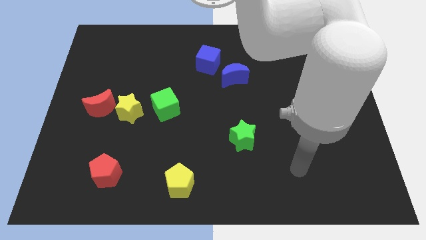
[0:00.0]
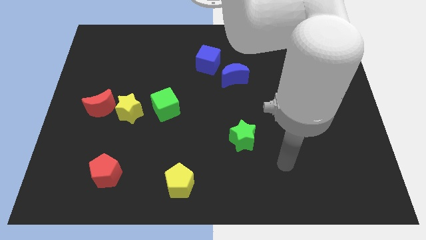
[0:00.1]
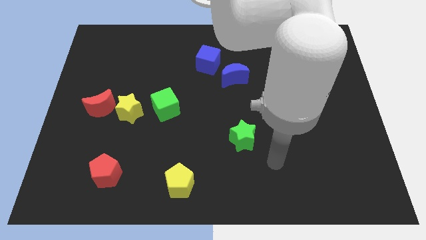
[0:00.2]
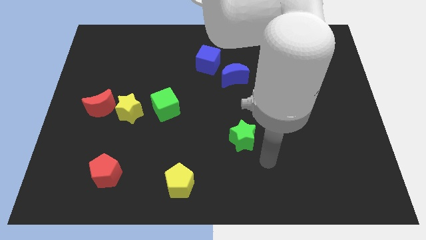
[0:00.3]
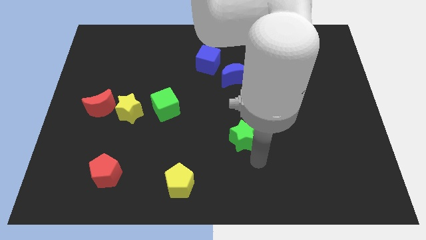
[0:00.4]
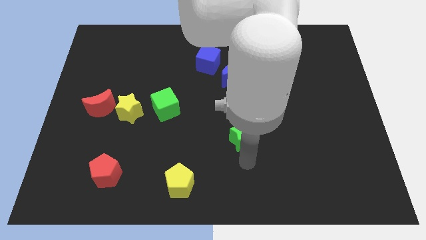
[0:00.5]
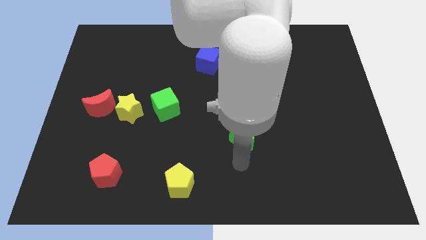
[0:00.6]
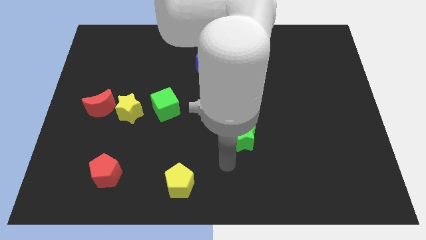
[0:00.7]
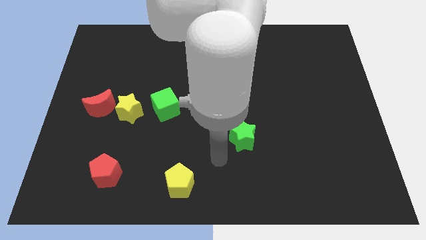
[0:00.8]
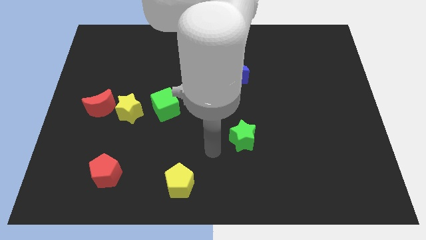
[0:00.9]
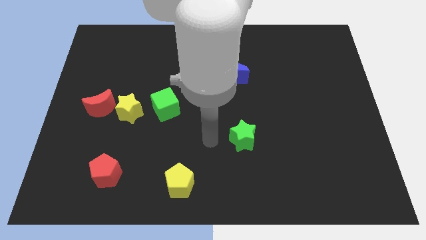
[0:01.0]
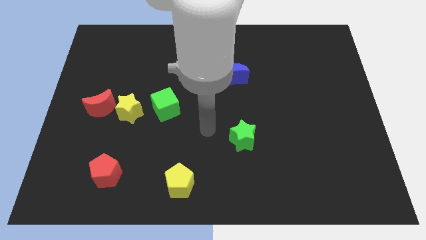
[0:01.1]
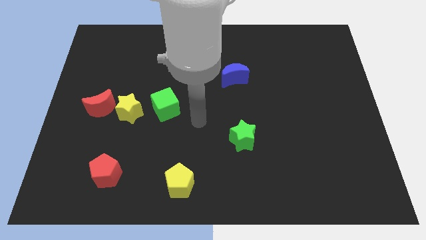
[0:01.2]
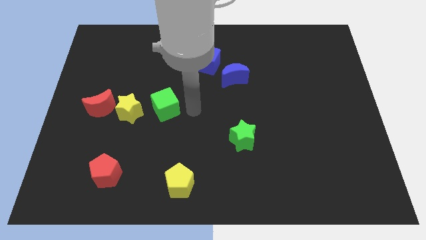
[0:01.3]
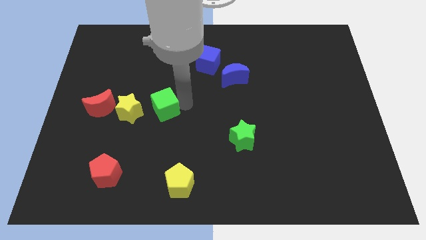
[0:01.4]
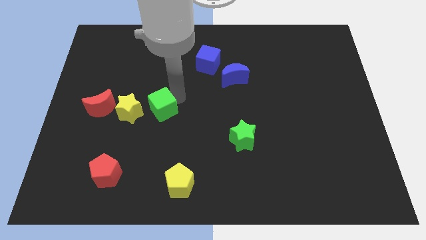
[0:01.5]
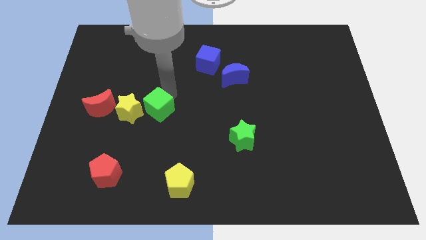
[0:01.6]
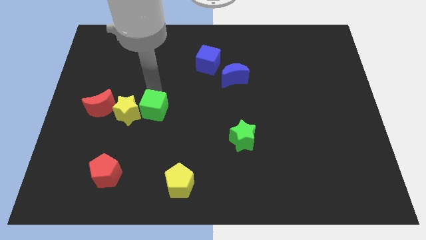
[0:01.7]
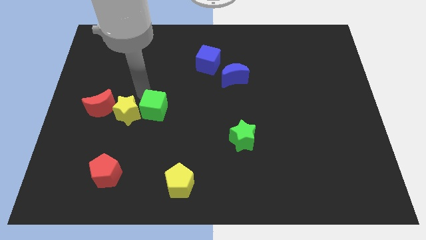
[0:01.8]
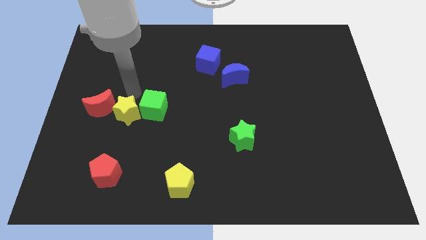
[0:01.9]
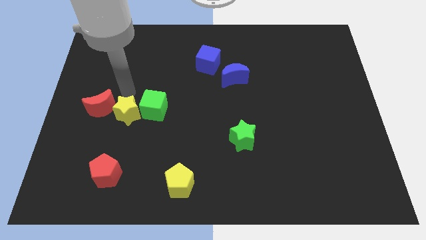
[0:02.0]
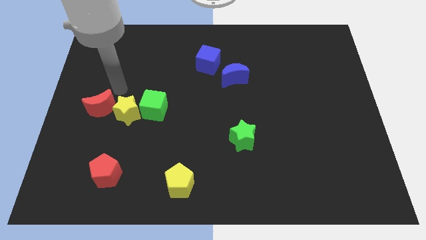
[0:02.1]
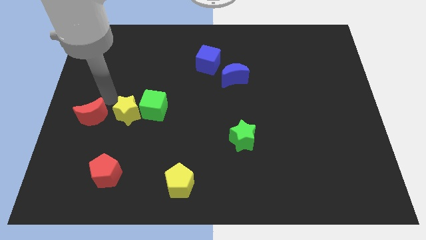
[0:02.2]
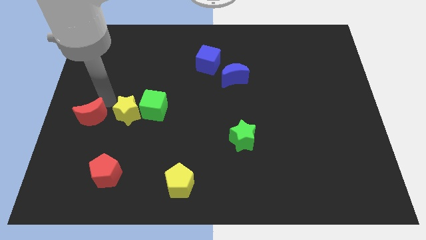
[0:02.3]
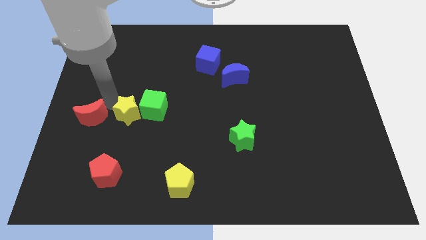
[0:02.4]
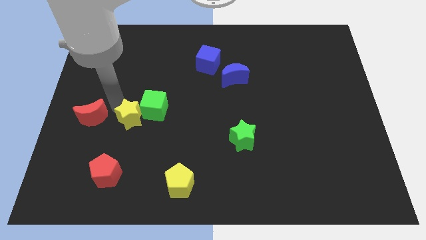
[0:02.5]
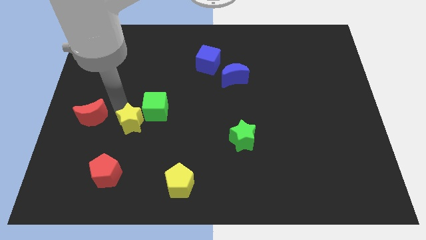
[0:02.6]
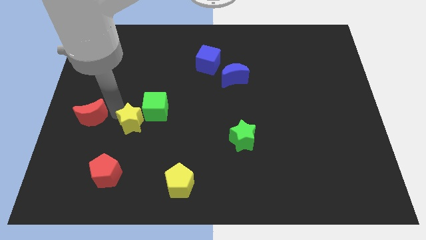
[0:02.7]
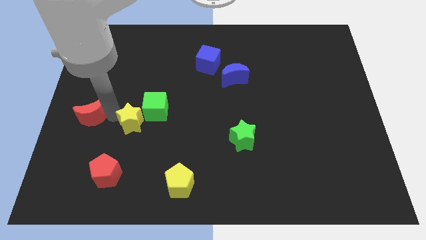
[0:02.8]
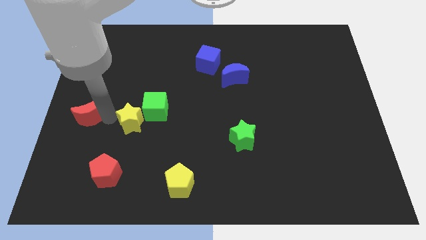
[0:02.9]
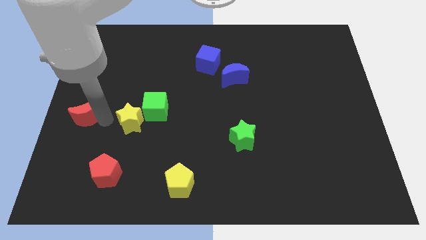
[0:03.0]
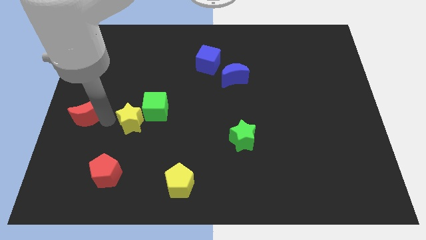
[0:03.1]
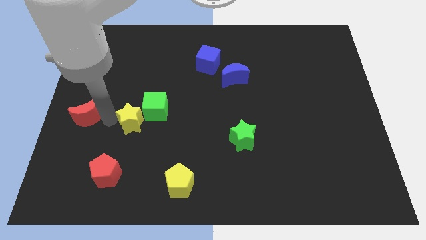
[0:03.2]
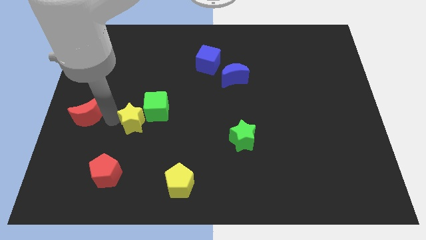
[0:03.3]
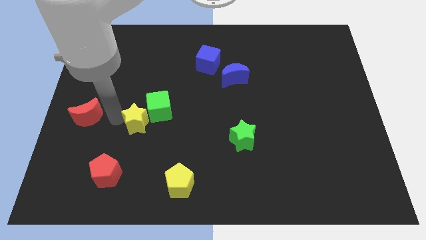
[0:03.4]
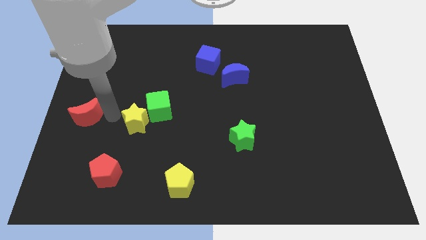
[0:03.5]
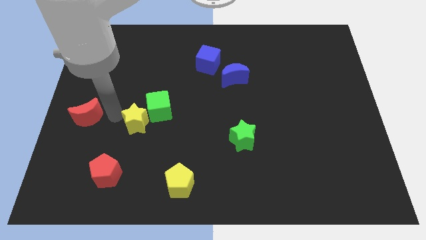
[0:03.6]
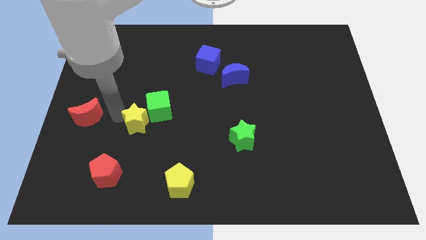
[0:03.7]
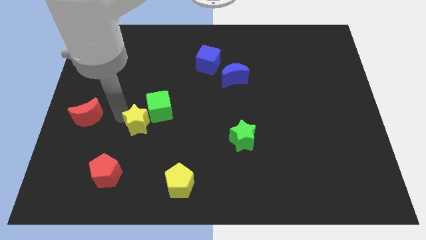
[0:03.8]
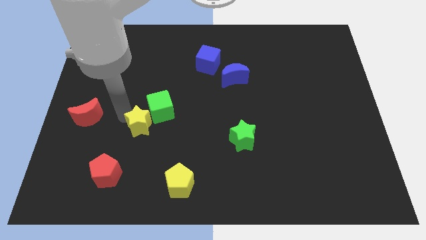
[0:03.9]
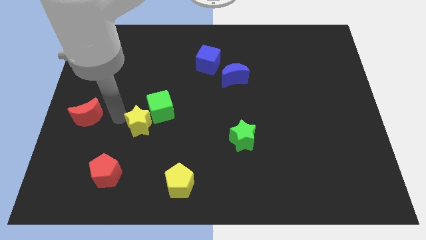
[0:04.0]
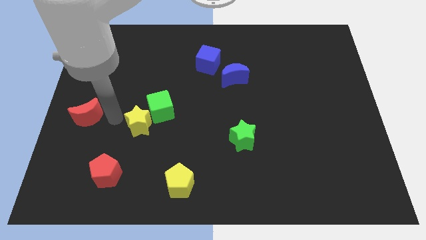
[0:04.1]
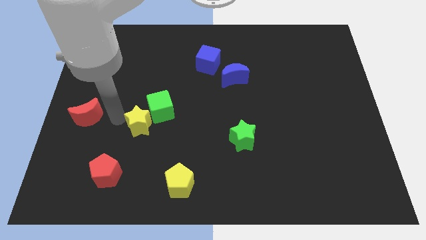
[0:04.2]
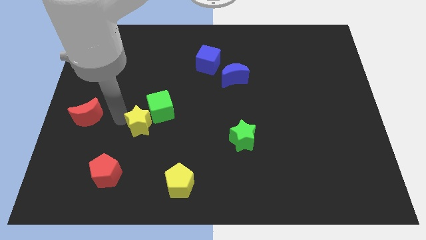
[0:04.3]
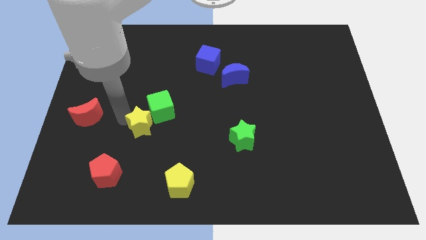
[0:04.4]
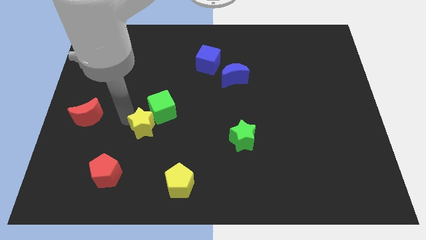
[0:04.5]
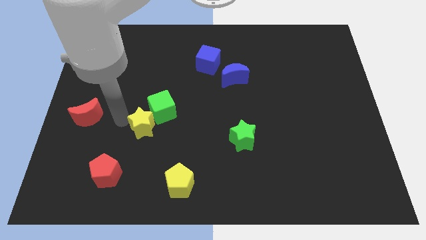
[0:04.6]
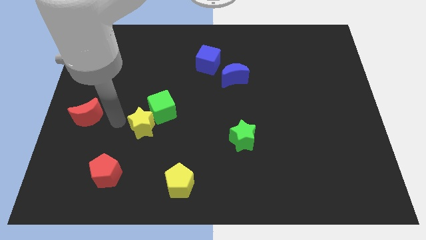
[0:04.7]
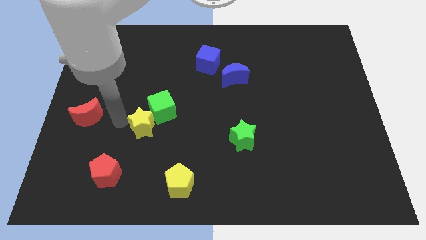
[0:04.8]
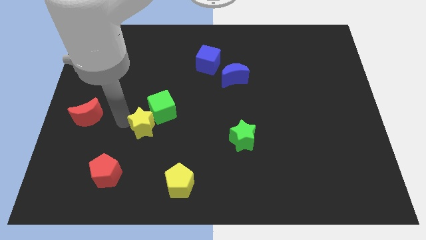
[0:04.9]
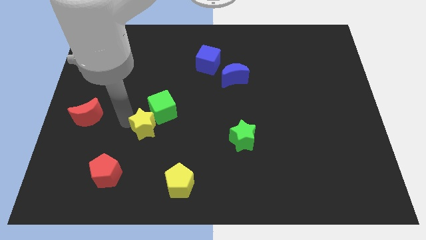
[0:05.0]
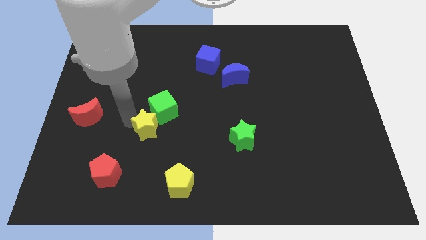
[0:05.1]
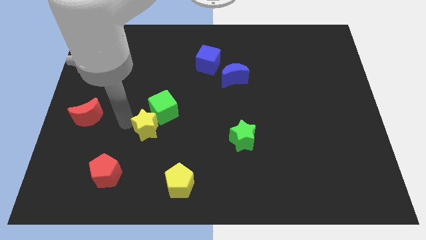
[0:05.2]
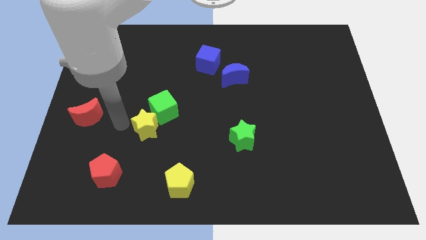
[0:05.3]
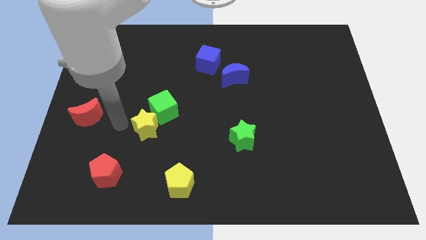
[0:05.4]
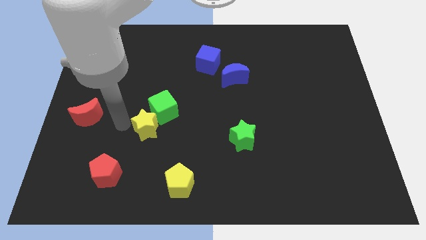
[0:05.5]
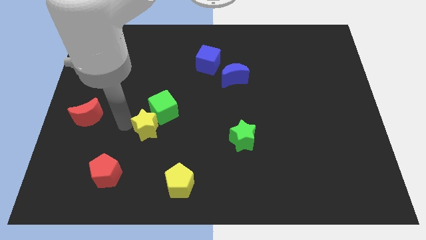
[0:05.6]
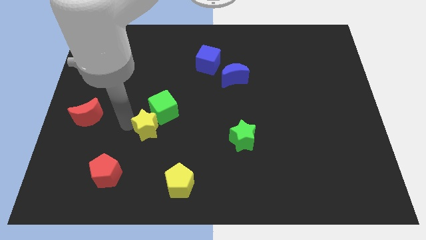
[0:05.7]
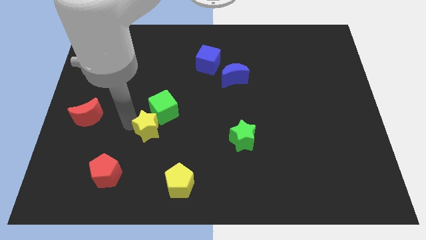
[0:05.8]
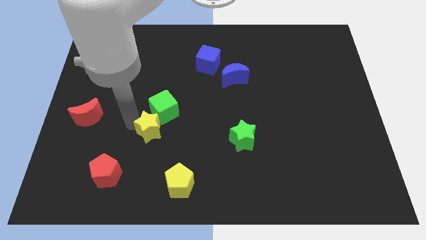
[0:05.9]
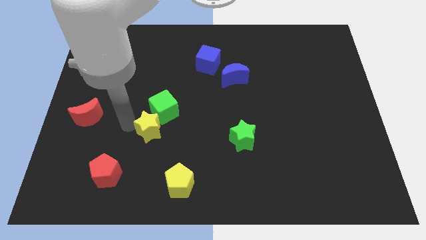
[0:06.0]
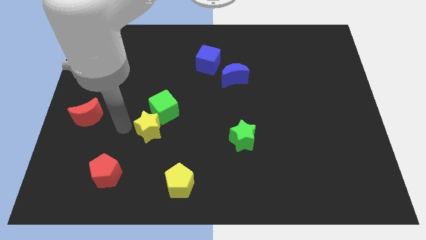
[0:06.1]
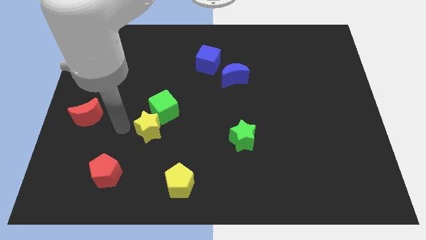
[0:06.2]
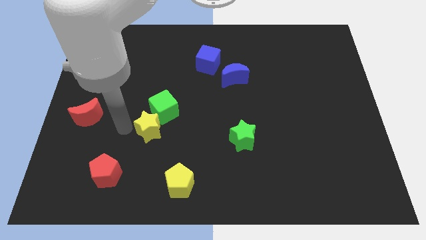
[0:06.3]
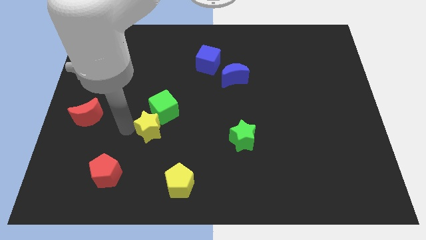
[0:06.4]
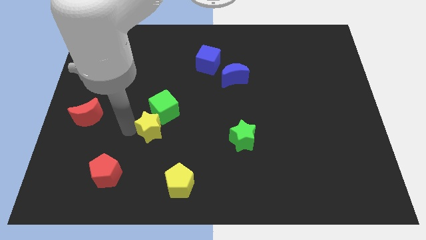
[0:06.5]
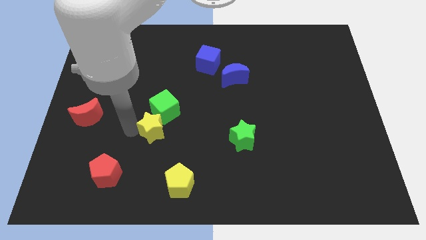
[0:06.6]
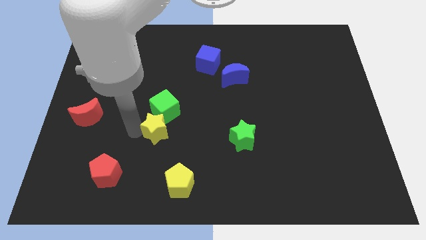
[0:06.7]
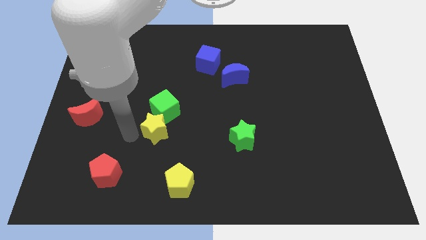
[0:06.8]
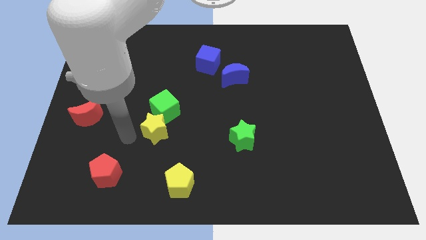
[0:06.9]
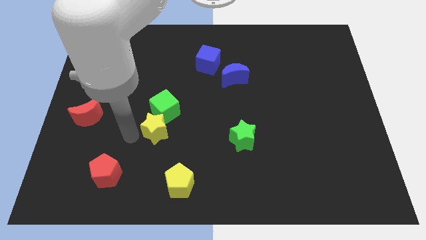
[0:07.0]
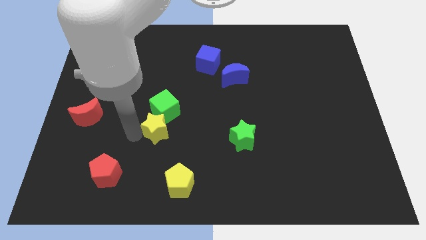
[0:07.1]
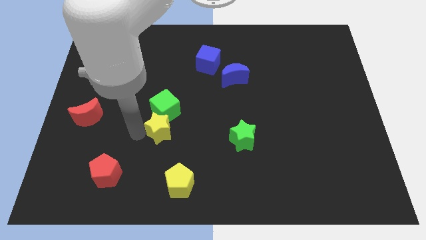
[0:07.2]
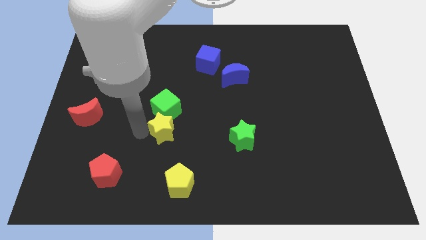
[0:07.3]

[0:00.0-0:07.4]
slightly move the yellow star right

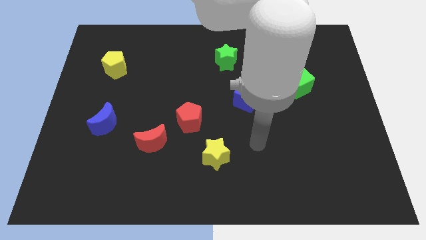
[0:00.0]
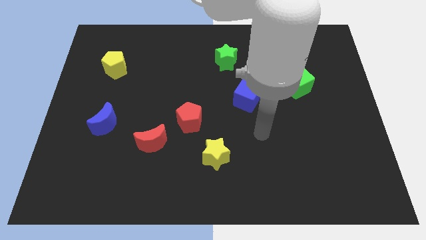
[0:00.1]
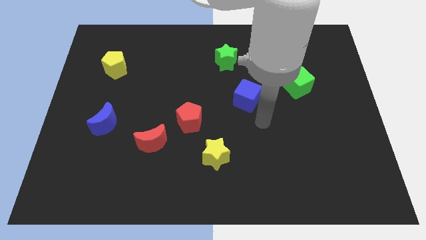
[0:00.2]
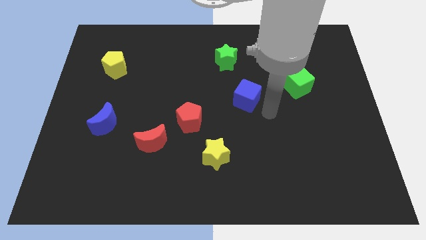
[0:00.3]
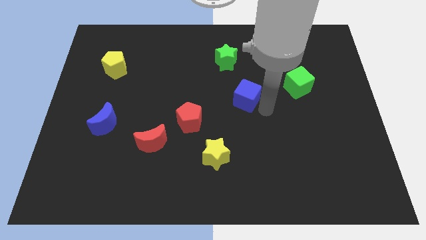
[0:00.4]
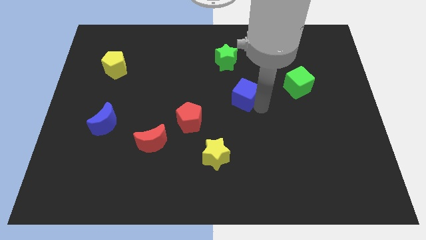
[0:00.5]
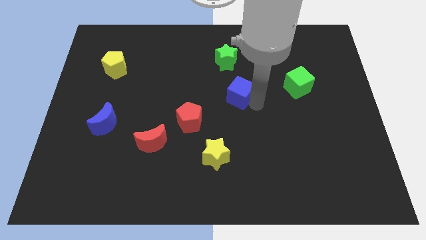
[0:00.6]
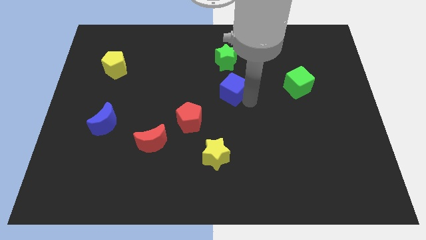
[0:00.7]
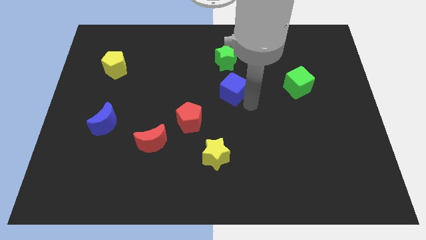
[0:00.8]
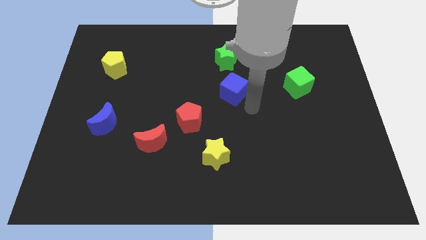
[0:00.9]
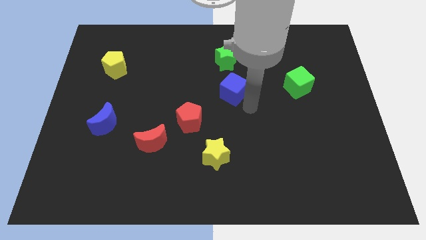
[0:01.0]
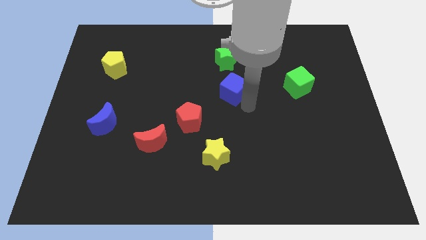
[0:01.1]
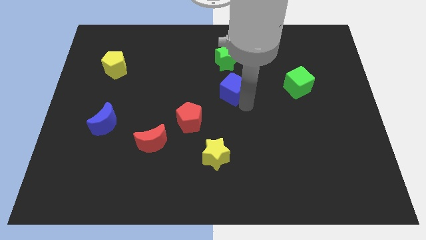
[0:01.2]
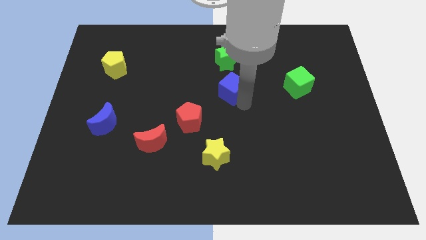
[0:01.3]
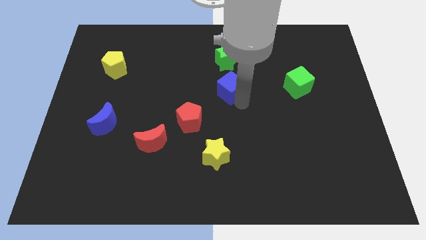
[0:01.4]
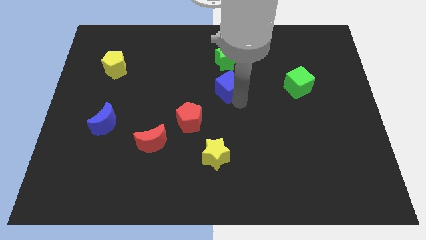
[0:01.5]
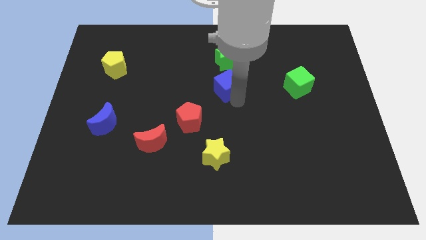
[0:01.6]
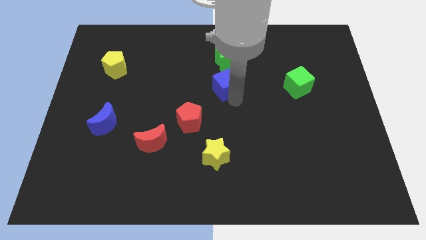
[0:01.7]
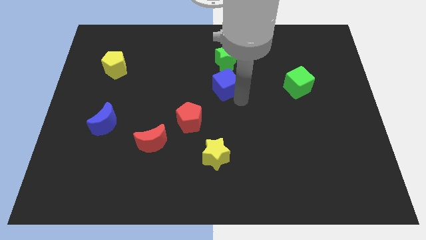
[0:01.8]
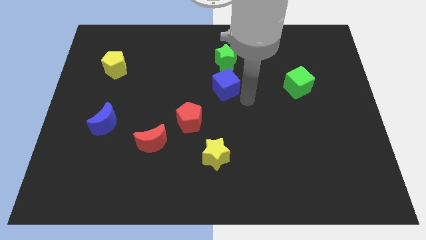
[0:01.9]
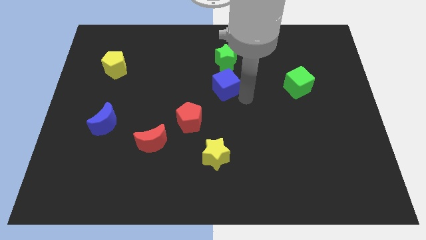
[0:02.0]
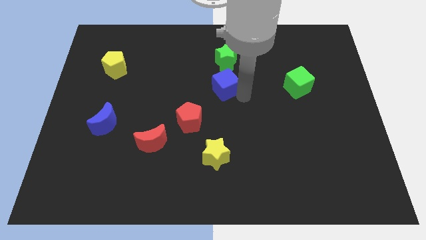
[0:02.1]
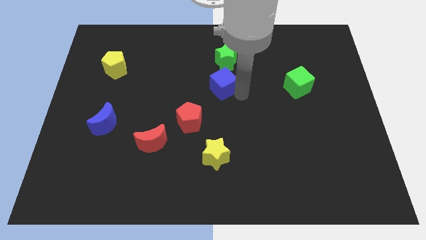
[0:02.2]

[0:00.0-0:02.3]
slide the blue cube a little up and left diagonally
